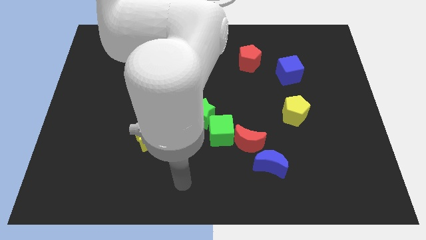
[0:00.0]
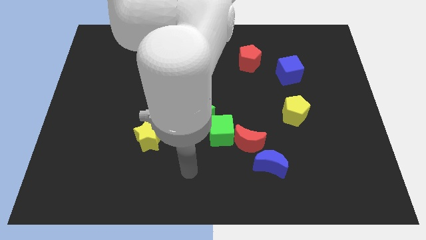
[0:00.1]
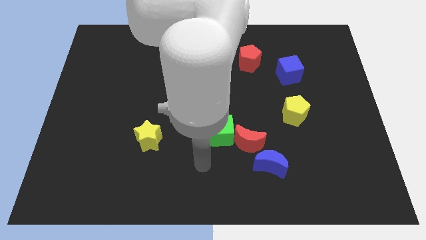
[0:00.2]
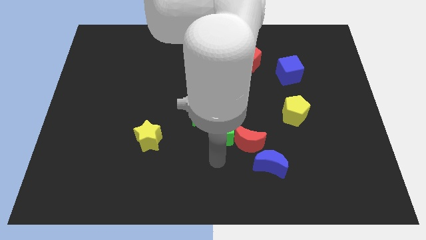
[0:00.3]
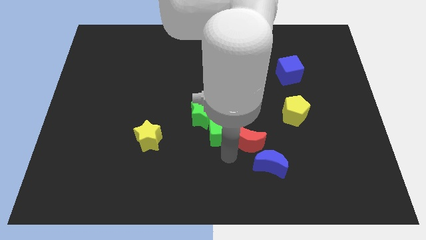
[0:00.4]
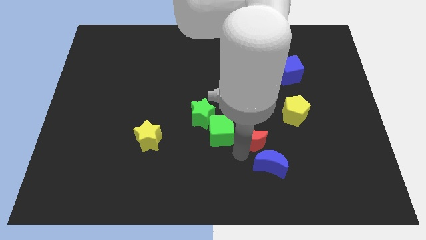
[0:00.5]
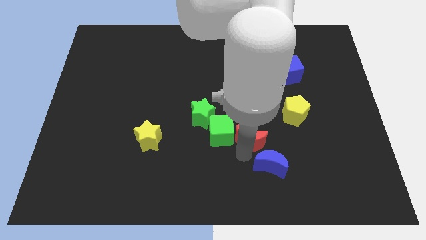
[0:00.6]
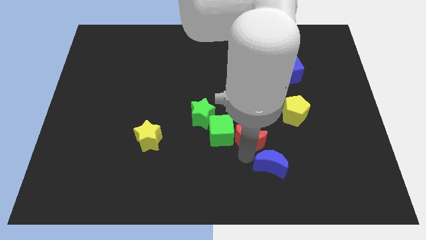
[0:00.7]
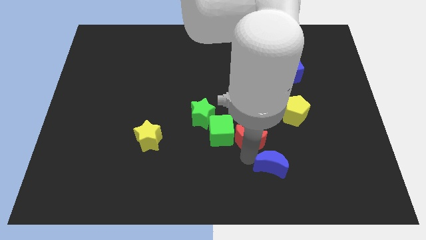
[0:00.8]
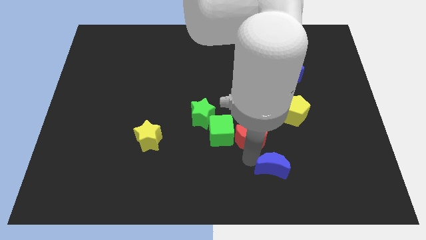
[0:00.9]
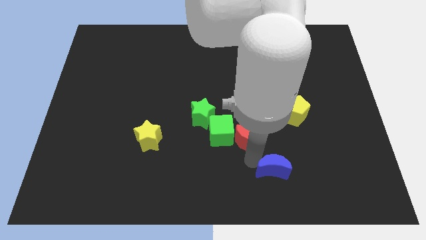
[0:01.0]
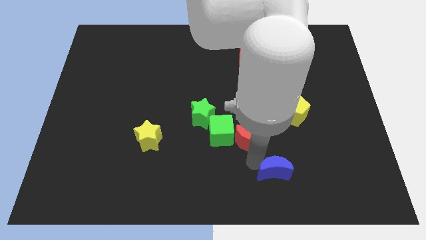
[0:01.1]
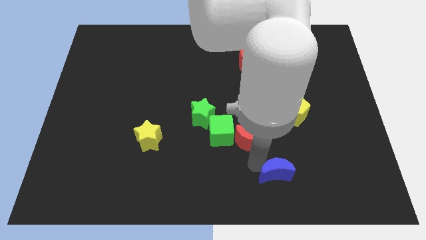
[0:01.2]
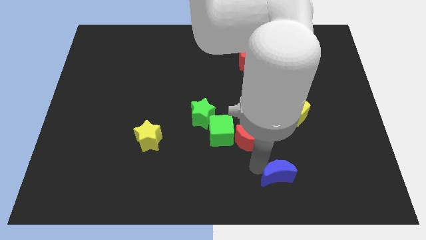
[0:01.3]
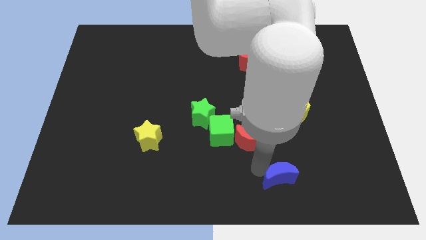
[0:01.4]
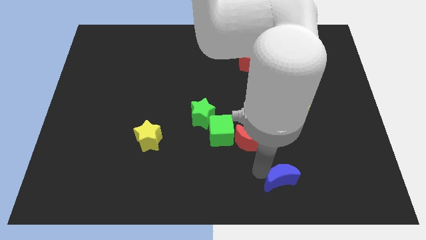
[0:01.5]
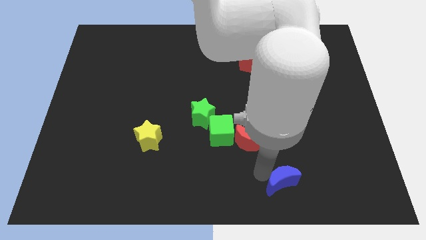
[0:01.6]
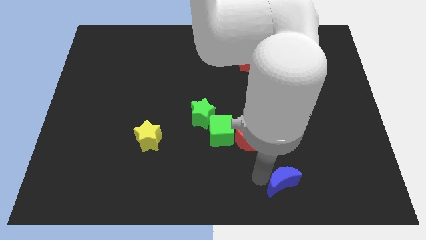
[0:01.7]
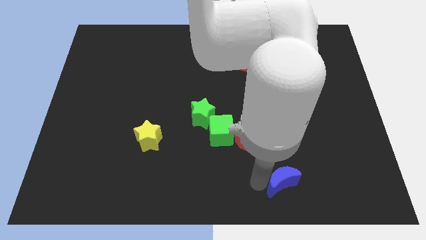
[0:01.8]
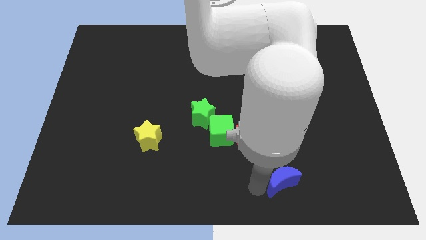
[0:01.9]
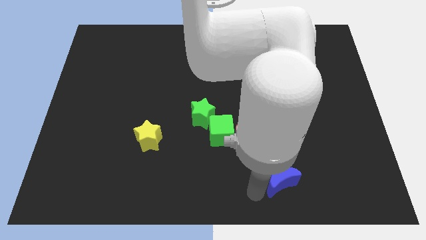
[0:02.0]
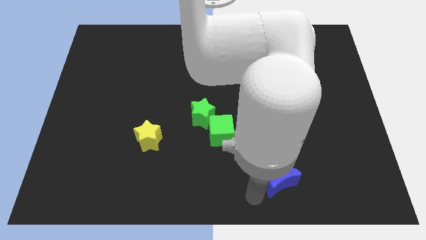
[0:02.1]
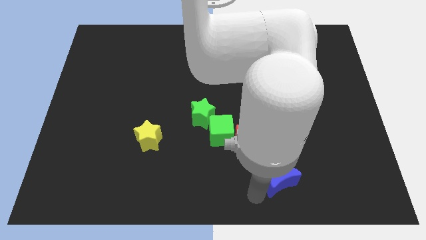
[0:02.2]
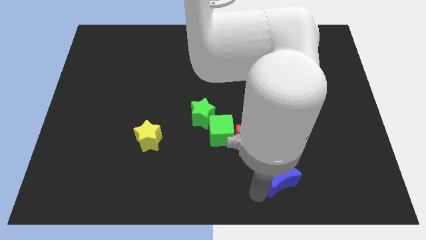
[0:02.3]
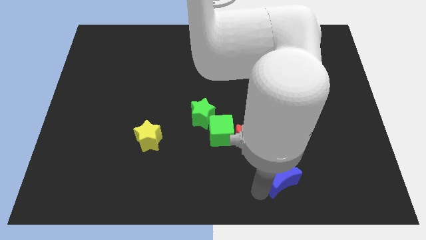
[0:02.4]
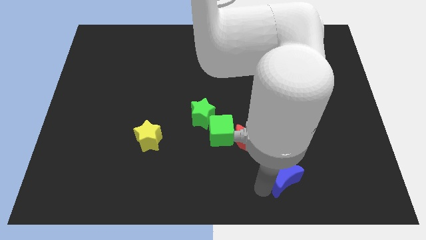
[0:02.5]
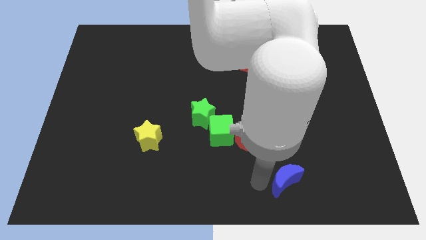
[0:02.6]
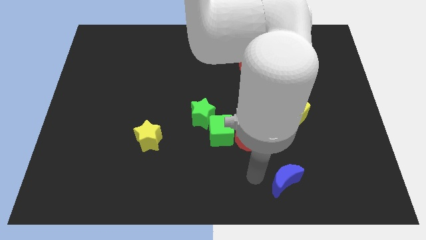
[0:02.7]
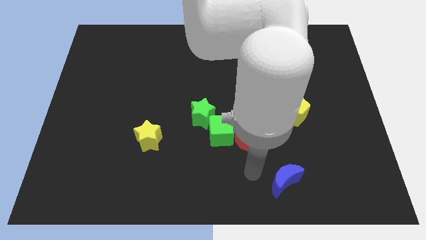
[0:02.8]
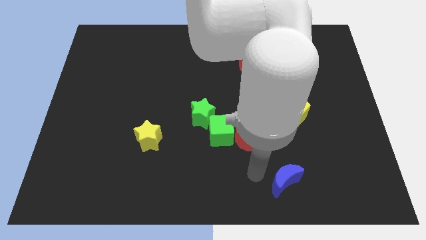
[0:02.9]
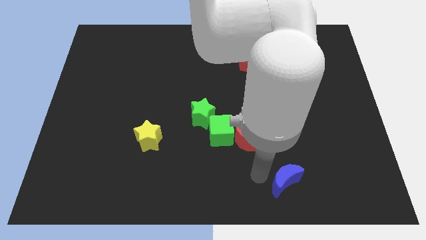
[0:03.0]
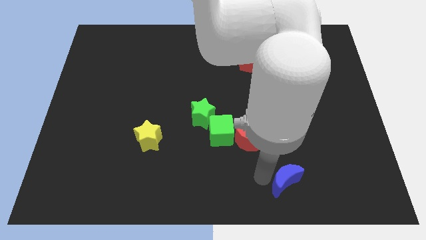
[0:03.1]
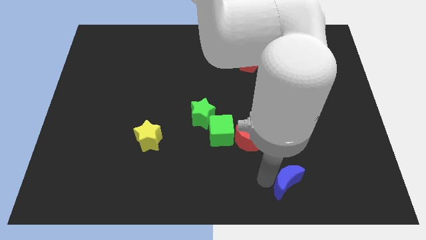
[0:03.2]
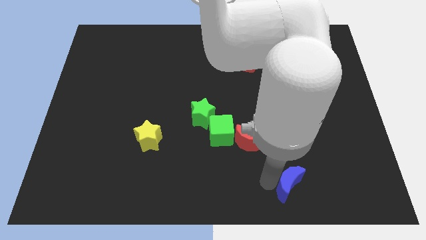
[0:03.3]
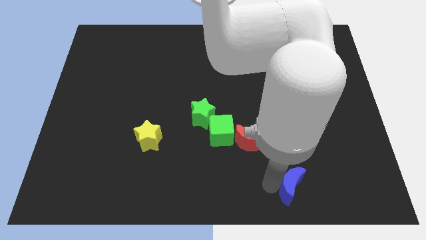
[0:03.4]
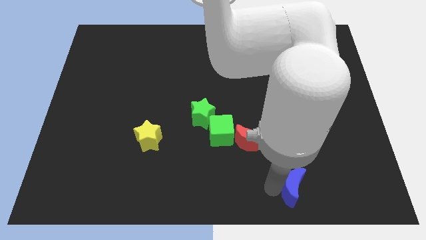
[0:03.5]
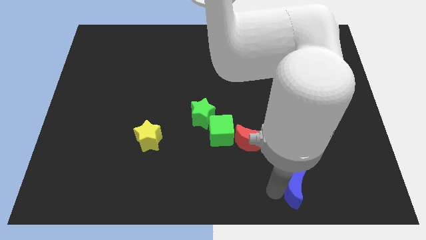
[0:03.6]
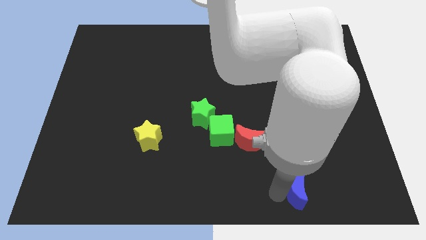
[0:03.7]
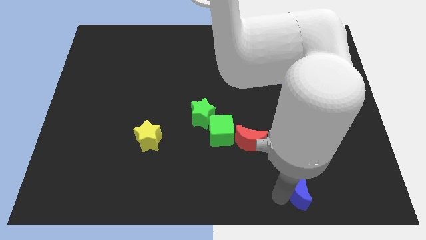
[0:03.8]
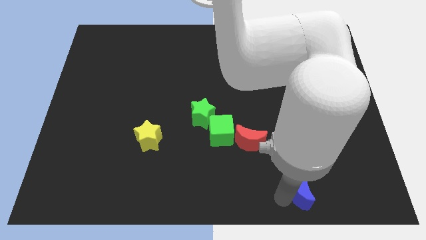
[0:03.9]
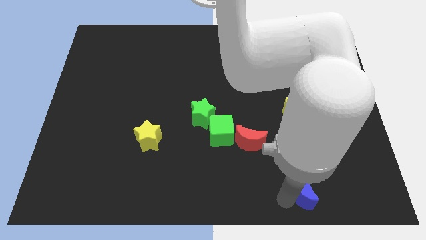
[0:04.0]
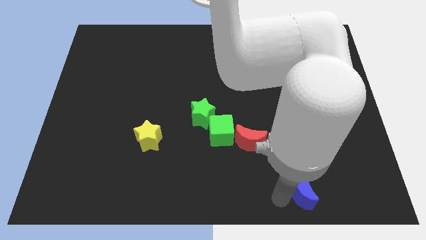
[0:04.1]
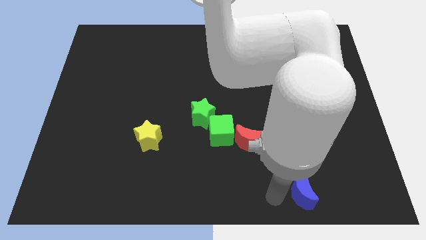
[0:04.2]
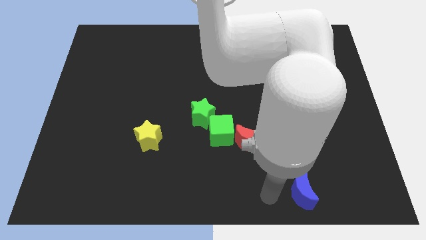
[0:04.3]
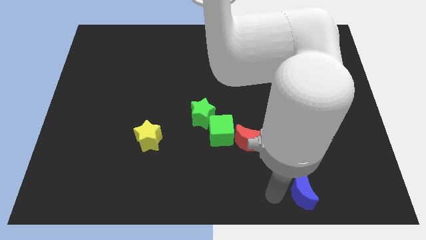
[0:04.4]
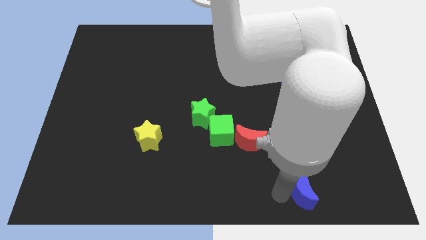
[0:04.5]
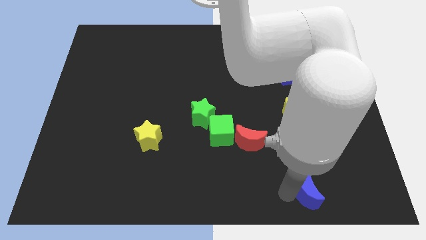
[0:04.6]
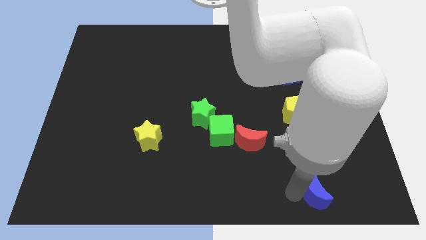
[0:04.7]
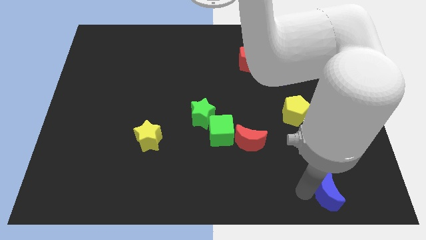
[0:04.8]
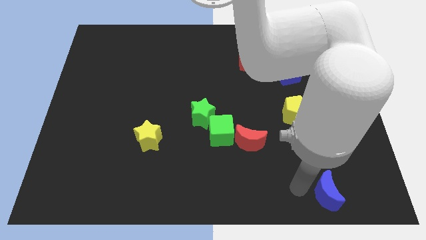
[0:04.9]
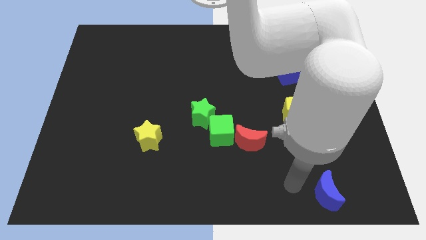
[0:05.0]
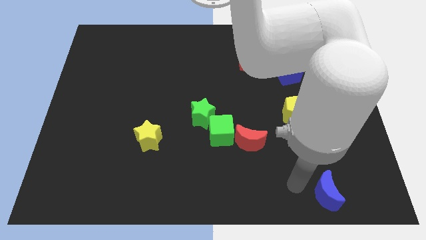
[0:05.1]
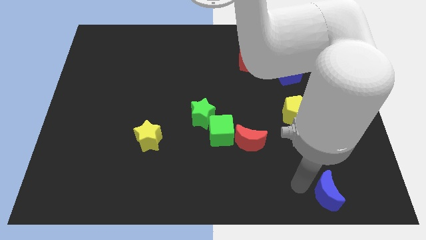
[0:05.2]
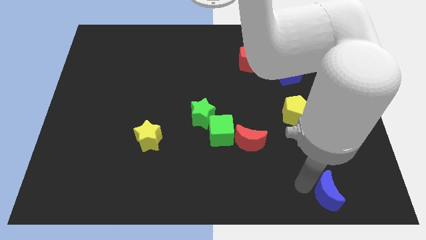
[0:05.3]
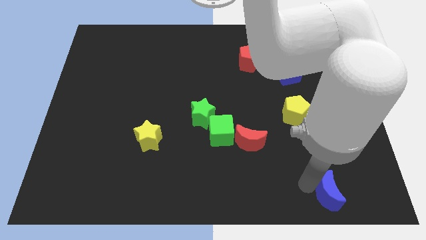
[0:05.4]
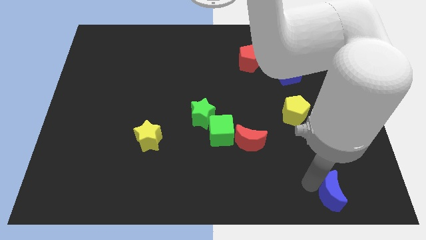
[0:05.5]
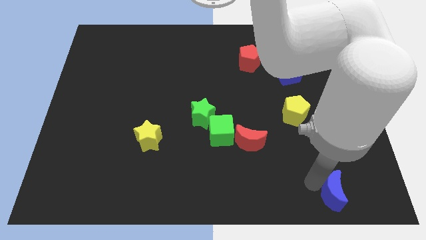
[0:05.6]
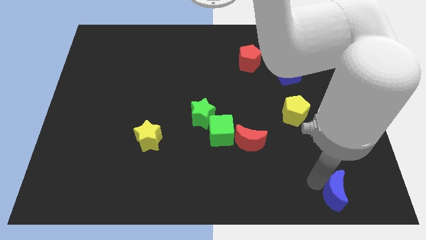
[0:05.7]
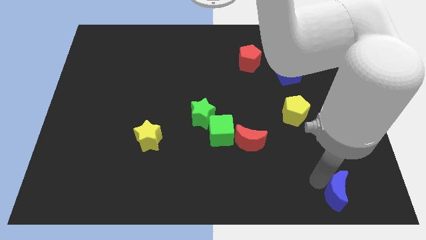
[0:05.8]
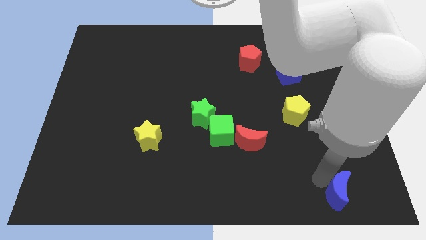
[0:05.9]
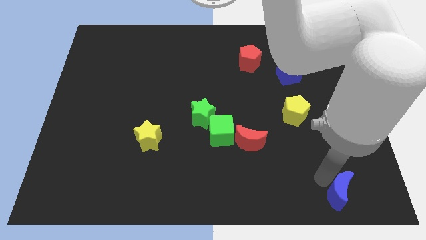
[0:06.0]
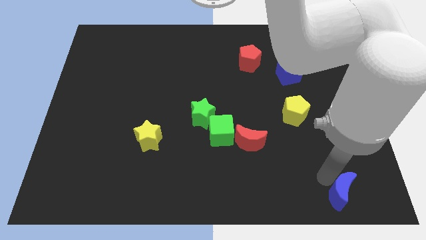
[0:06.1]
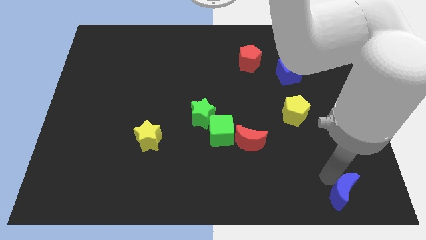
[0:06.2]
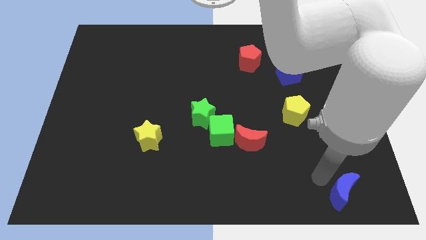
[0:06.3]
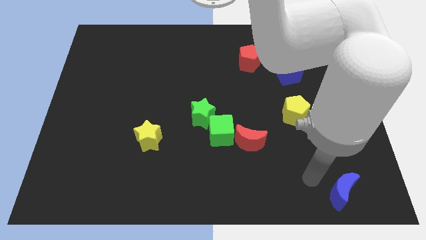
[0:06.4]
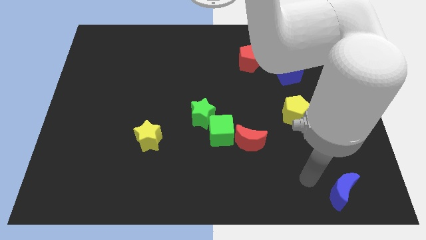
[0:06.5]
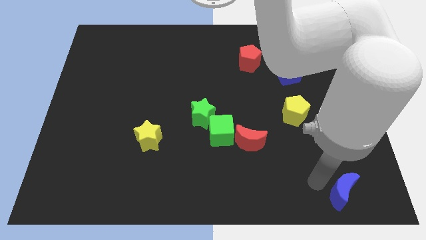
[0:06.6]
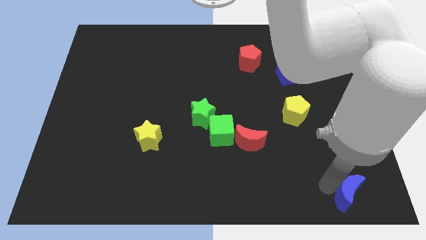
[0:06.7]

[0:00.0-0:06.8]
move the blue moon to the bottom right
